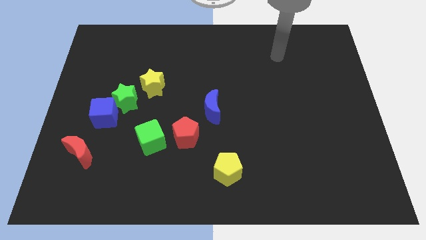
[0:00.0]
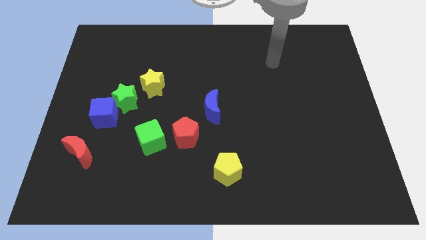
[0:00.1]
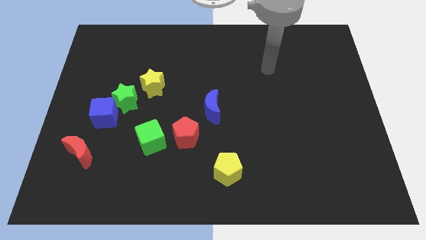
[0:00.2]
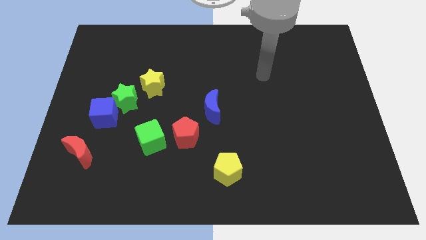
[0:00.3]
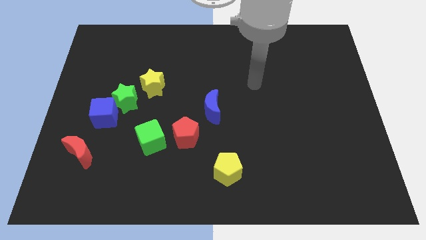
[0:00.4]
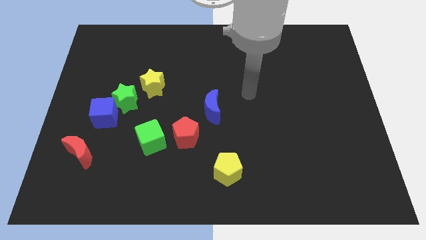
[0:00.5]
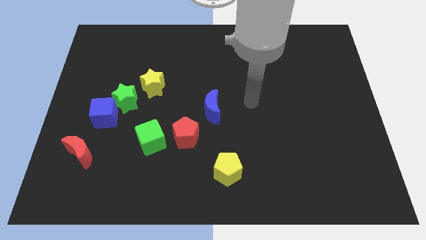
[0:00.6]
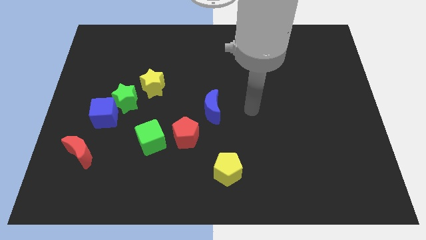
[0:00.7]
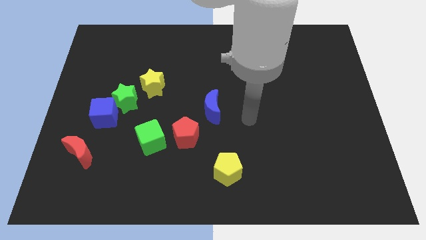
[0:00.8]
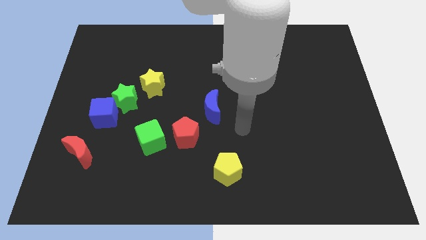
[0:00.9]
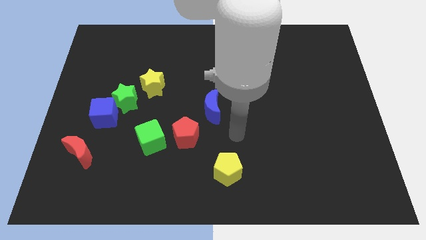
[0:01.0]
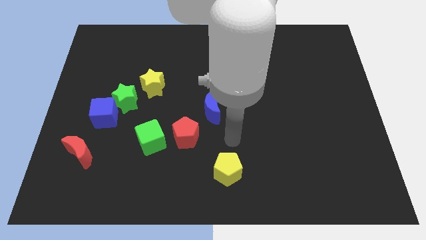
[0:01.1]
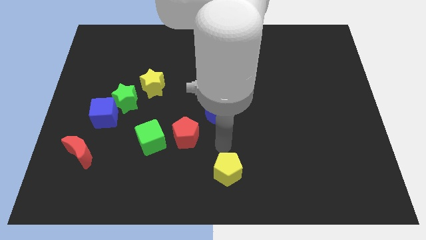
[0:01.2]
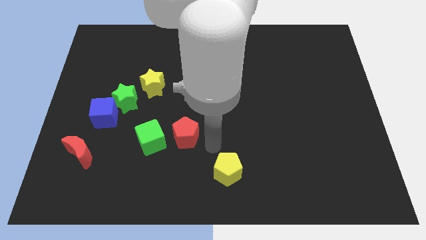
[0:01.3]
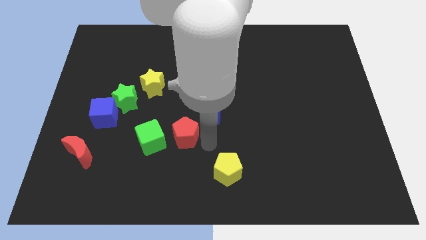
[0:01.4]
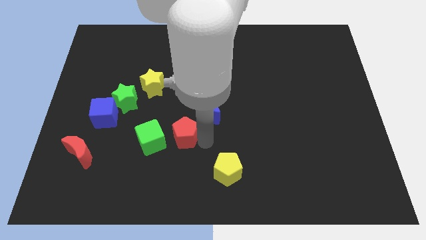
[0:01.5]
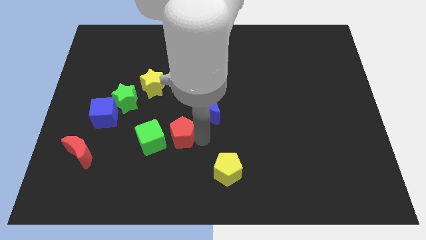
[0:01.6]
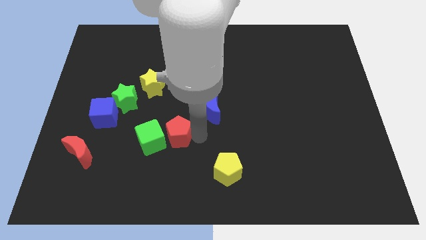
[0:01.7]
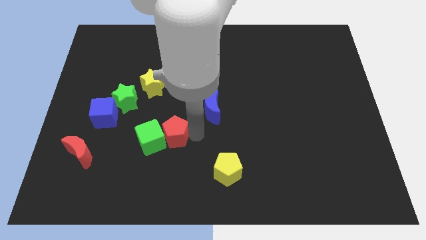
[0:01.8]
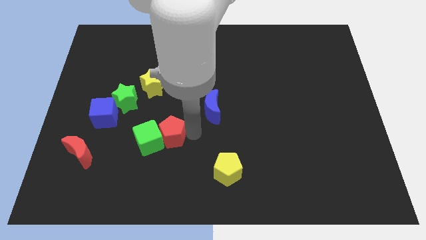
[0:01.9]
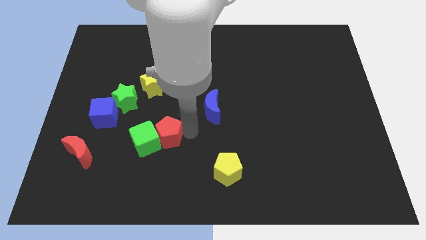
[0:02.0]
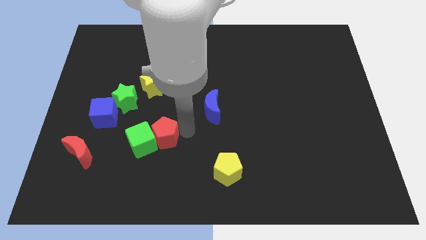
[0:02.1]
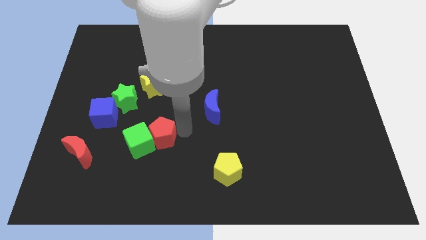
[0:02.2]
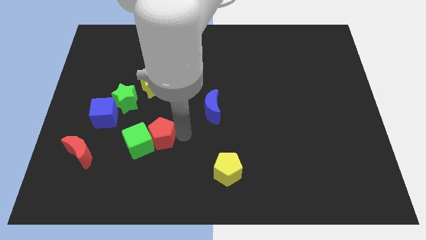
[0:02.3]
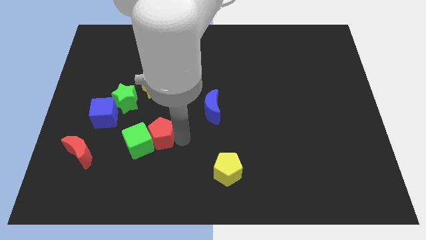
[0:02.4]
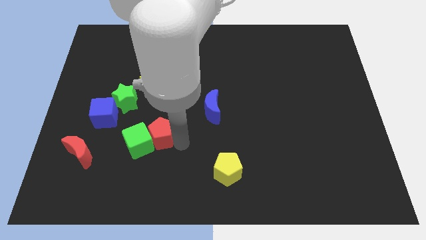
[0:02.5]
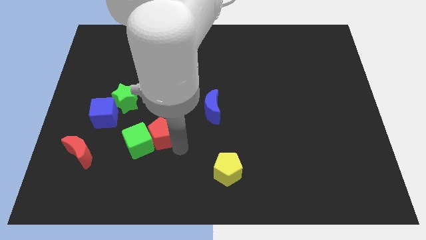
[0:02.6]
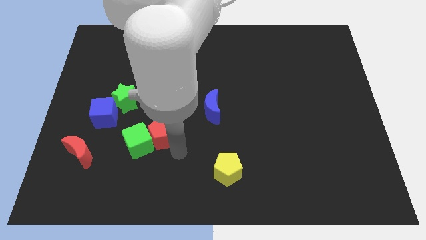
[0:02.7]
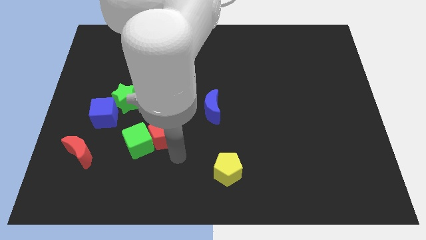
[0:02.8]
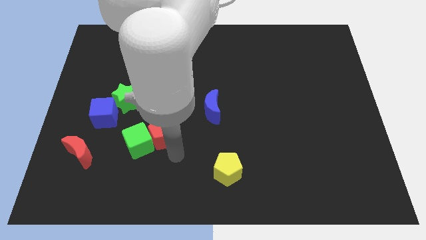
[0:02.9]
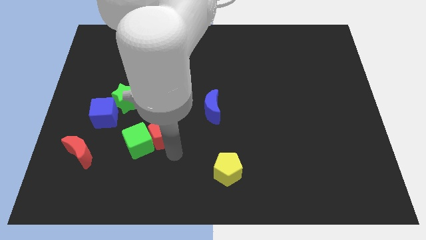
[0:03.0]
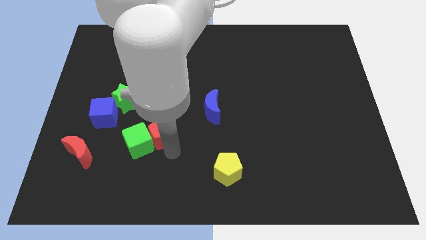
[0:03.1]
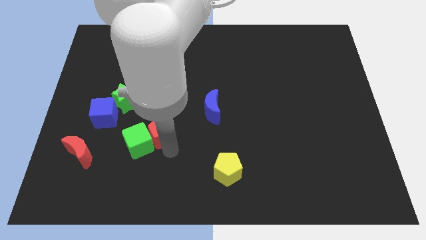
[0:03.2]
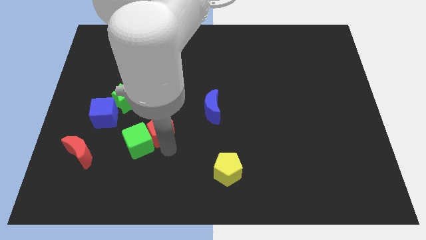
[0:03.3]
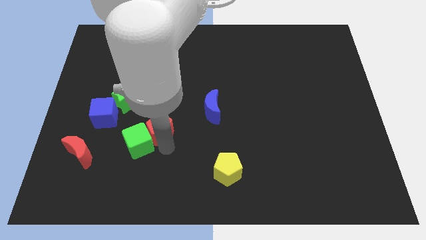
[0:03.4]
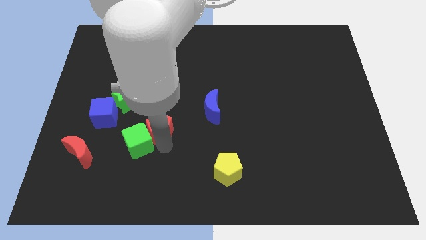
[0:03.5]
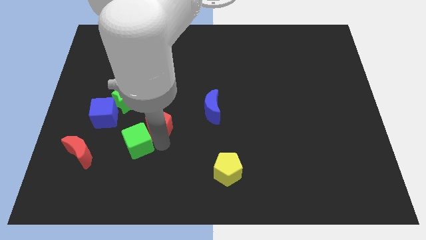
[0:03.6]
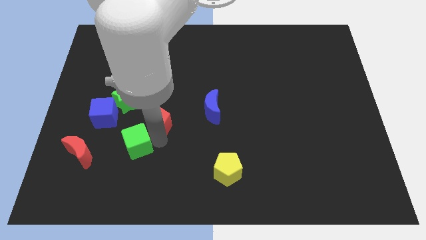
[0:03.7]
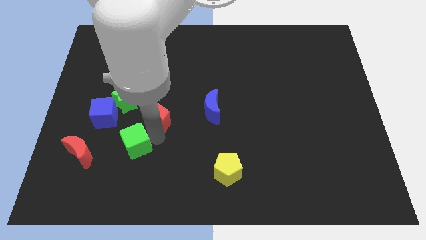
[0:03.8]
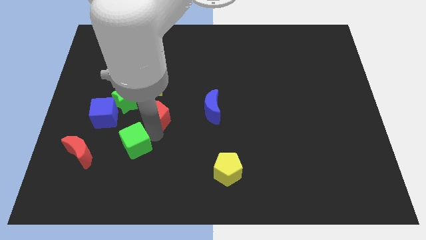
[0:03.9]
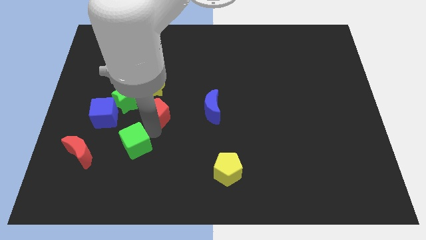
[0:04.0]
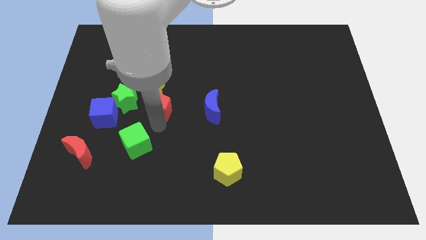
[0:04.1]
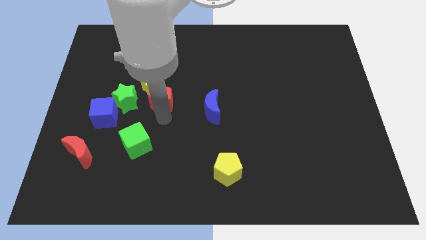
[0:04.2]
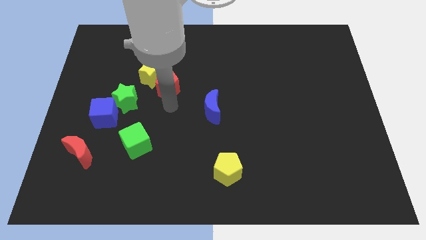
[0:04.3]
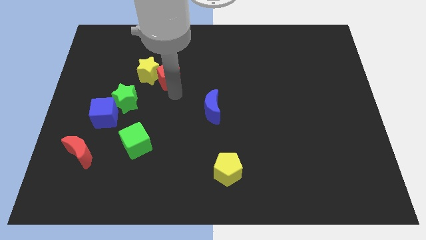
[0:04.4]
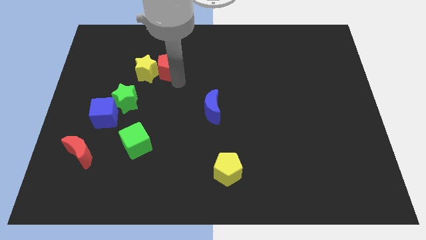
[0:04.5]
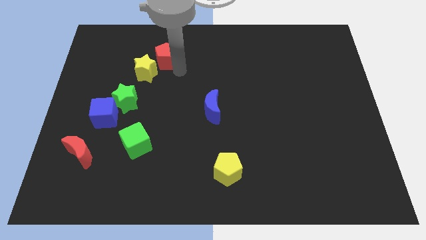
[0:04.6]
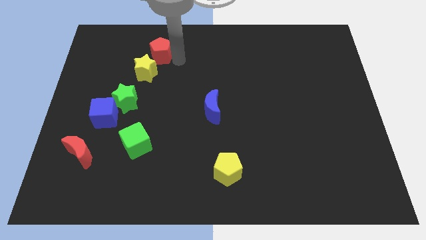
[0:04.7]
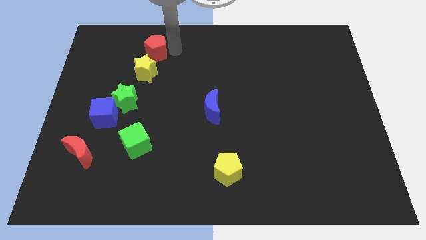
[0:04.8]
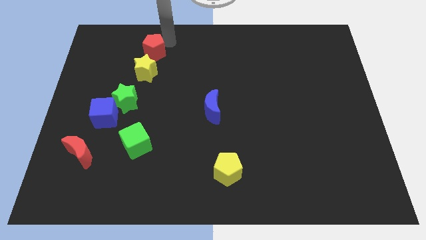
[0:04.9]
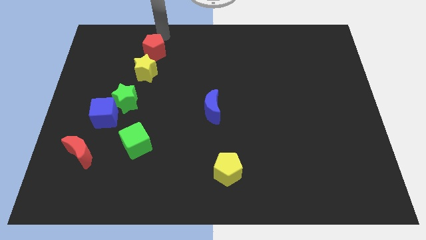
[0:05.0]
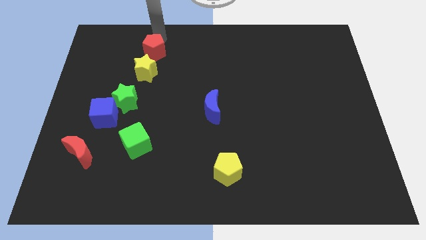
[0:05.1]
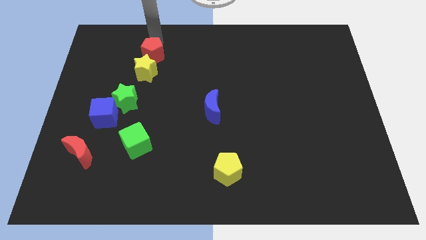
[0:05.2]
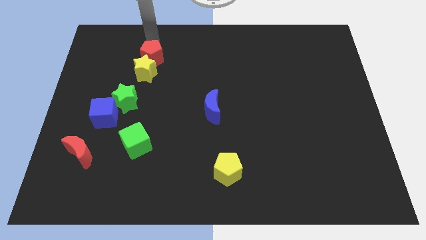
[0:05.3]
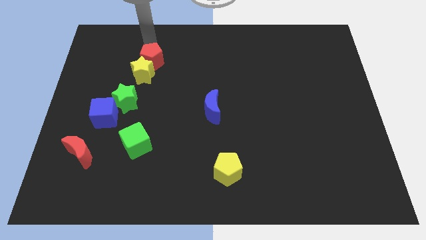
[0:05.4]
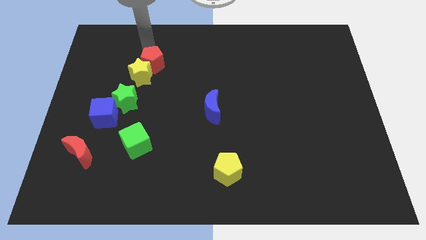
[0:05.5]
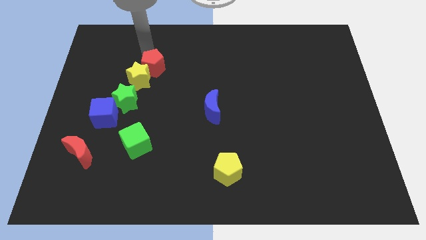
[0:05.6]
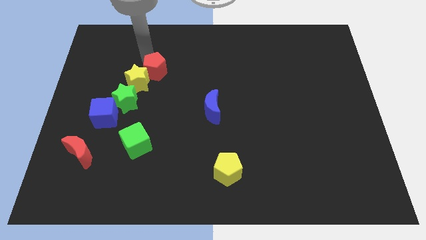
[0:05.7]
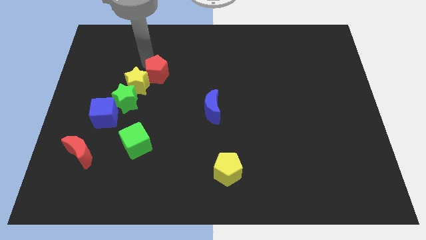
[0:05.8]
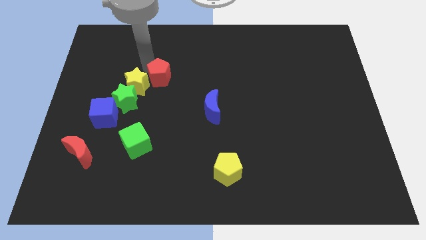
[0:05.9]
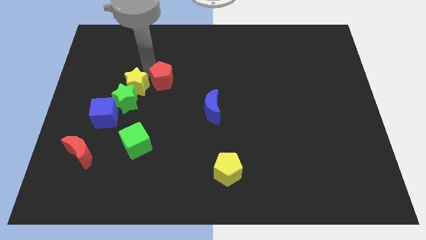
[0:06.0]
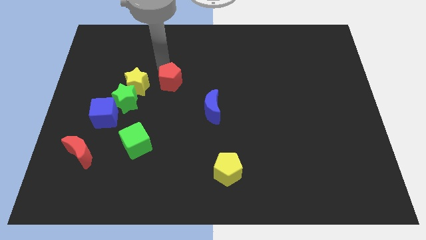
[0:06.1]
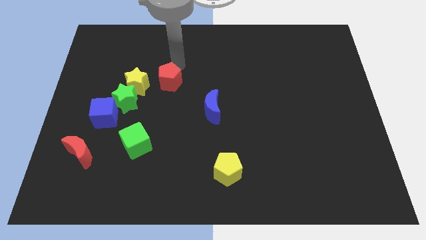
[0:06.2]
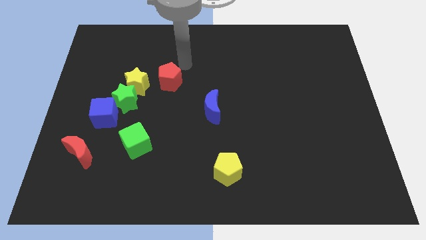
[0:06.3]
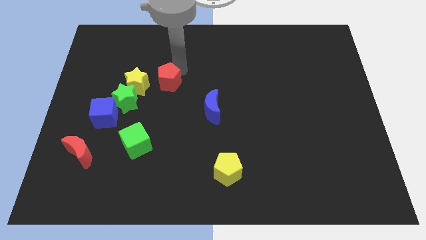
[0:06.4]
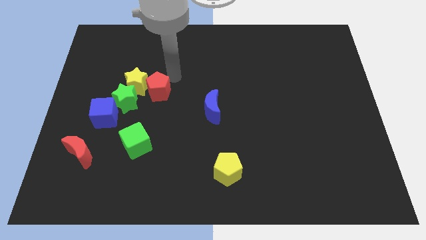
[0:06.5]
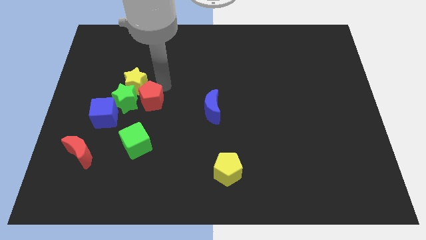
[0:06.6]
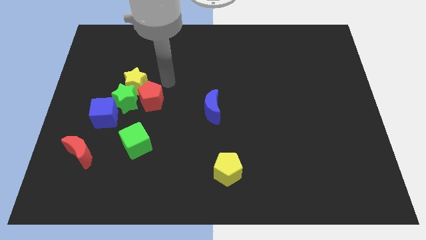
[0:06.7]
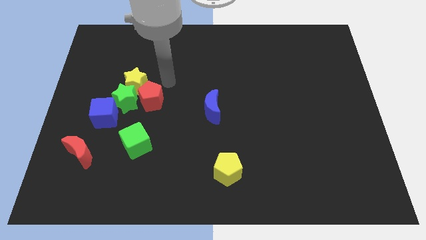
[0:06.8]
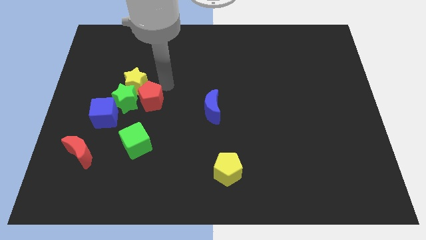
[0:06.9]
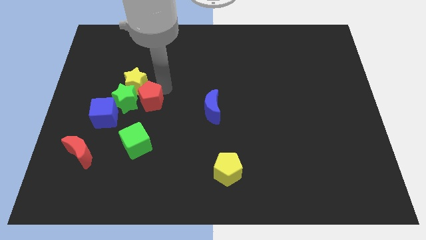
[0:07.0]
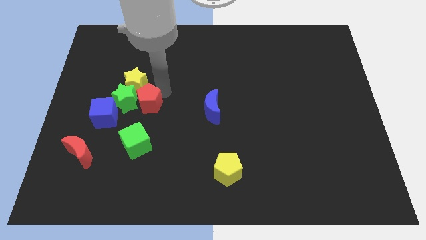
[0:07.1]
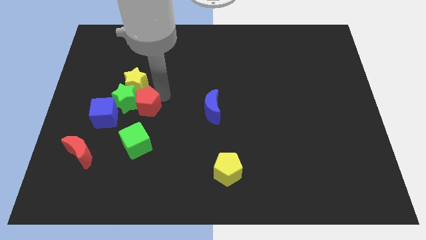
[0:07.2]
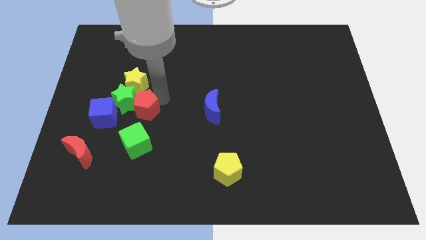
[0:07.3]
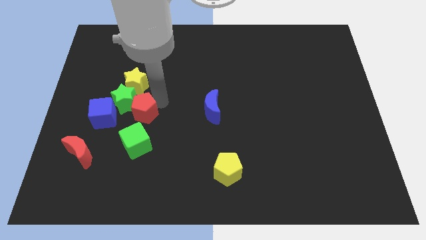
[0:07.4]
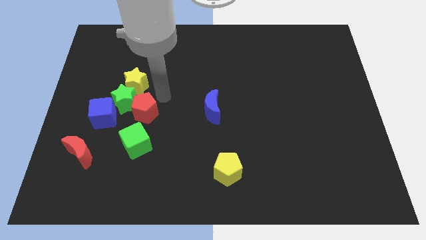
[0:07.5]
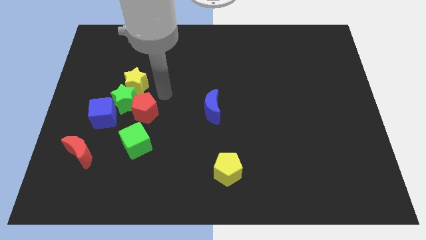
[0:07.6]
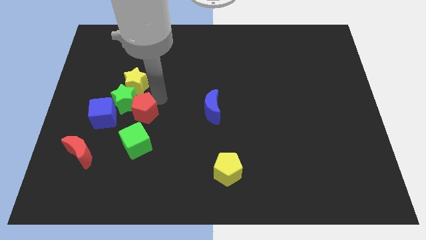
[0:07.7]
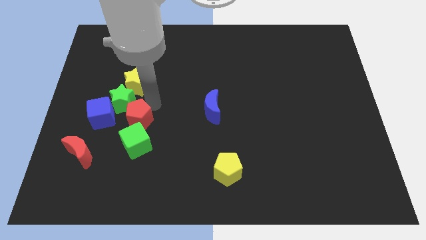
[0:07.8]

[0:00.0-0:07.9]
slide the red pentagon to the bottom side of the green star
